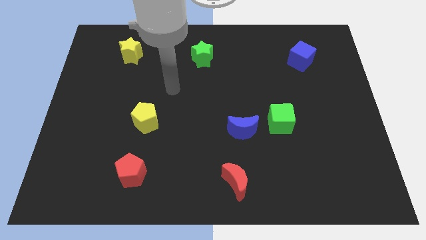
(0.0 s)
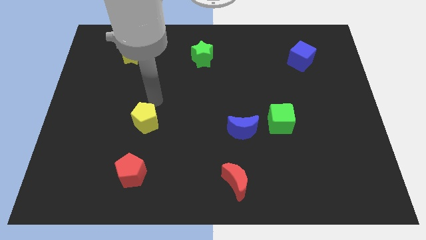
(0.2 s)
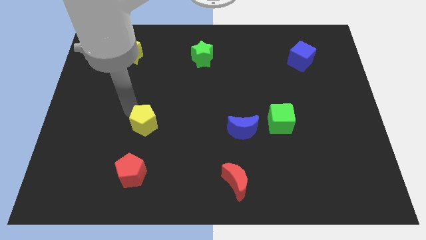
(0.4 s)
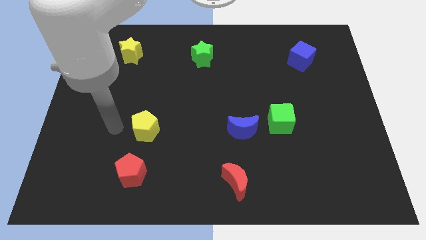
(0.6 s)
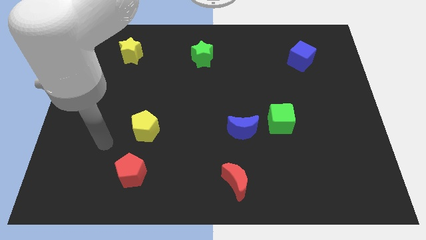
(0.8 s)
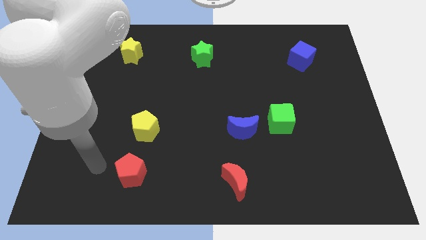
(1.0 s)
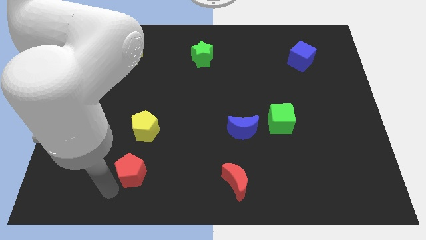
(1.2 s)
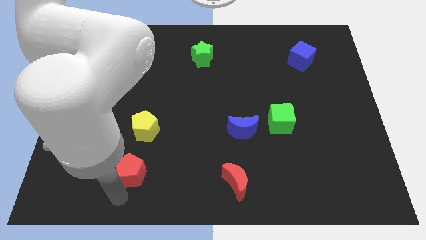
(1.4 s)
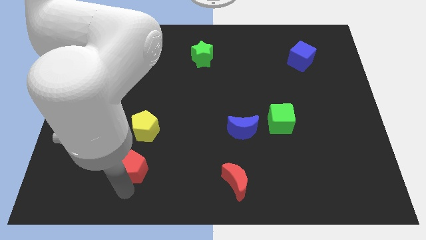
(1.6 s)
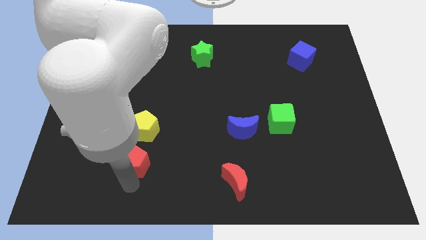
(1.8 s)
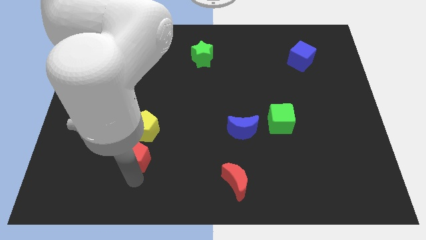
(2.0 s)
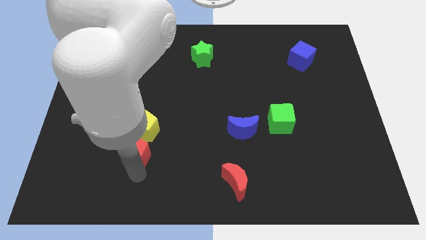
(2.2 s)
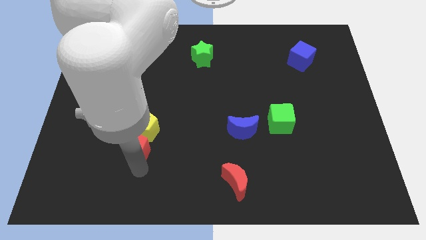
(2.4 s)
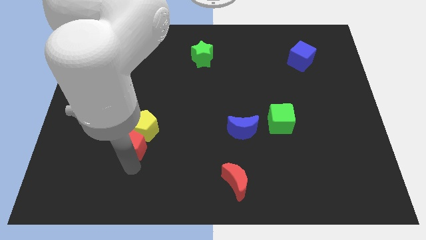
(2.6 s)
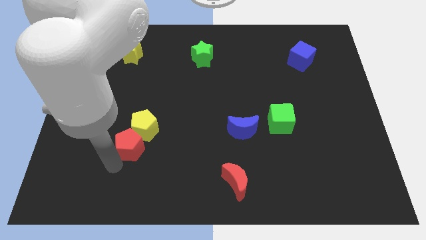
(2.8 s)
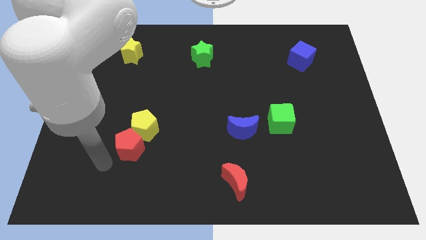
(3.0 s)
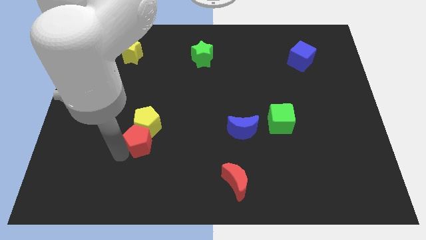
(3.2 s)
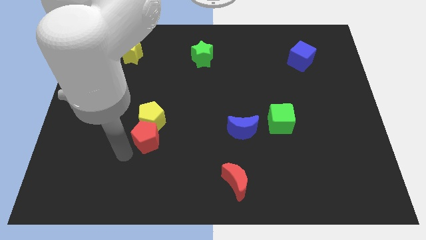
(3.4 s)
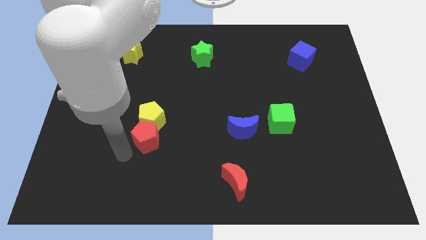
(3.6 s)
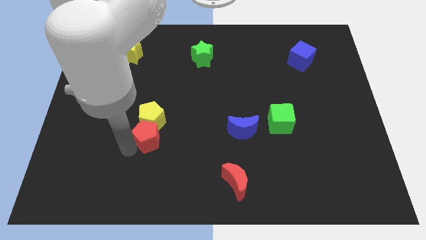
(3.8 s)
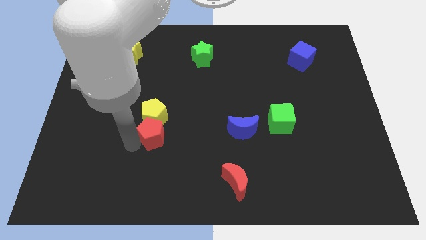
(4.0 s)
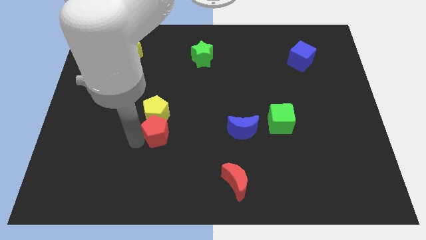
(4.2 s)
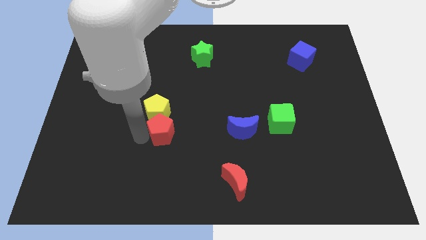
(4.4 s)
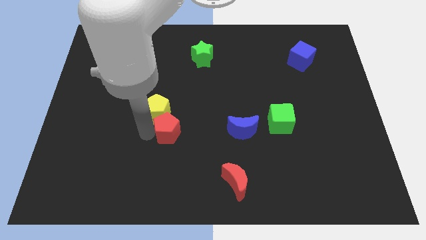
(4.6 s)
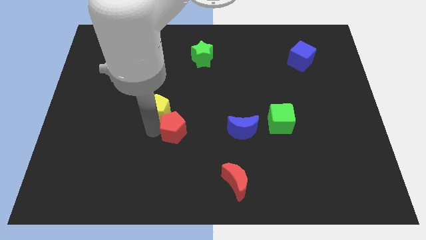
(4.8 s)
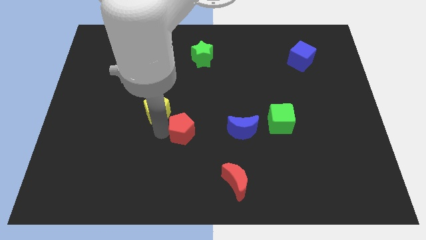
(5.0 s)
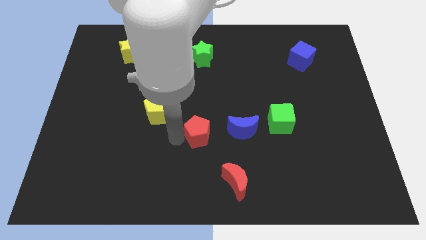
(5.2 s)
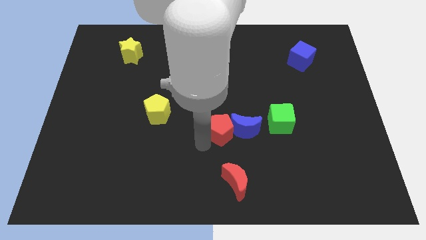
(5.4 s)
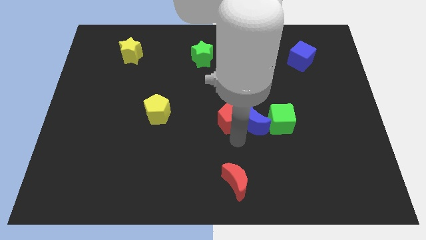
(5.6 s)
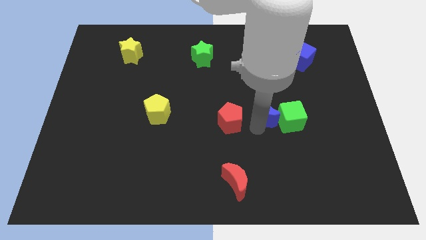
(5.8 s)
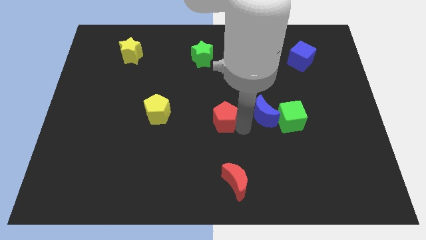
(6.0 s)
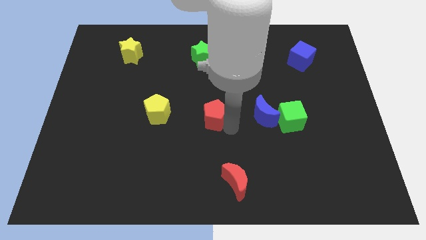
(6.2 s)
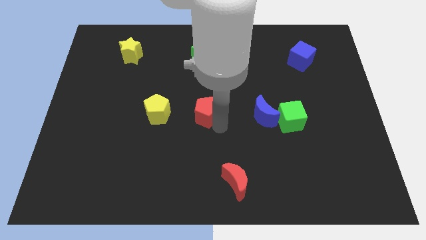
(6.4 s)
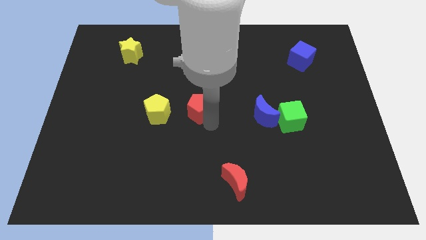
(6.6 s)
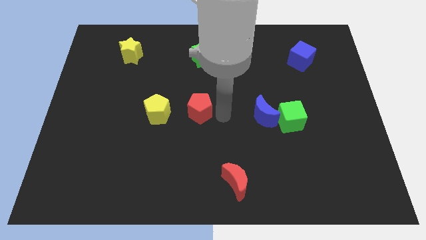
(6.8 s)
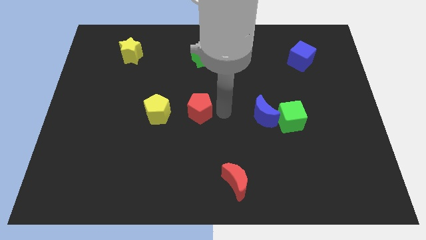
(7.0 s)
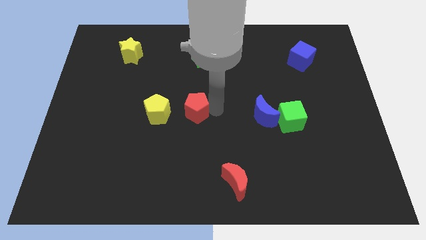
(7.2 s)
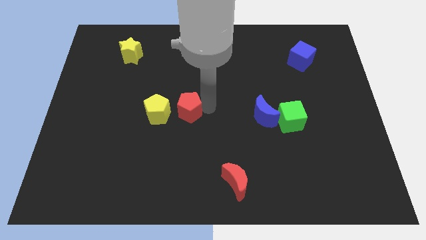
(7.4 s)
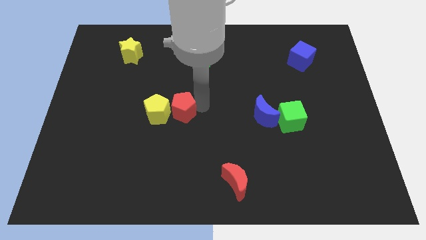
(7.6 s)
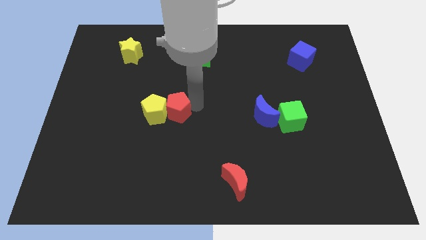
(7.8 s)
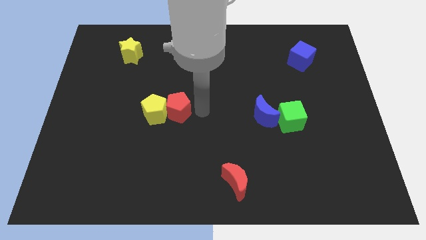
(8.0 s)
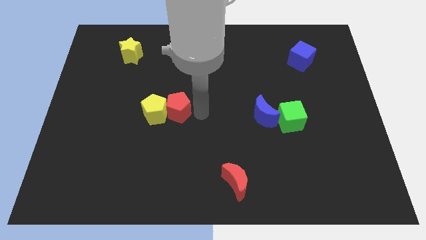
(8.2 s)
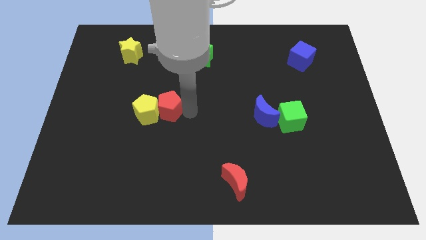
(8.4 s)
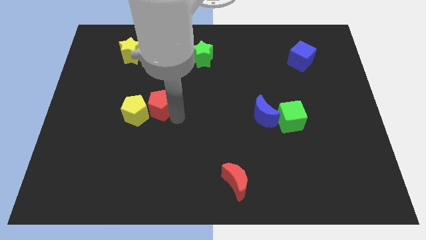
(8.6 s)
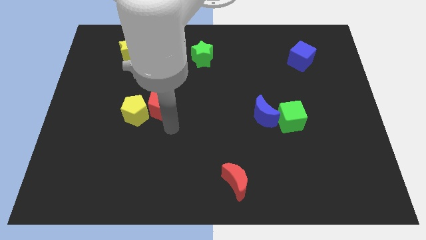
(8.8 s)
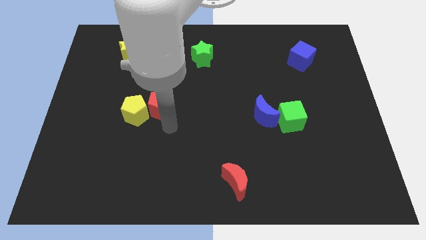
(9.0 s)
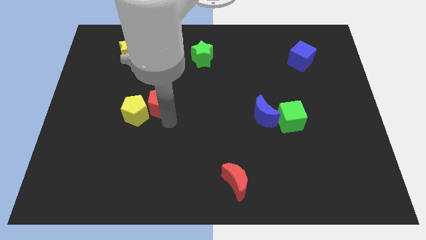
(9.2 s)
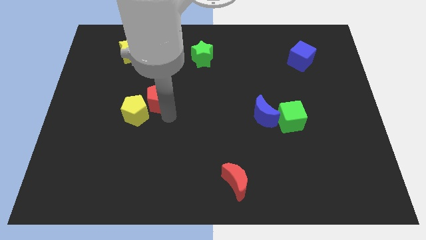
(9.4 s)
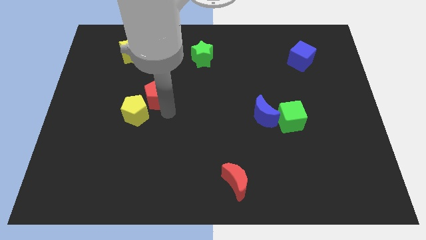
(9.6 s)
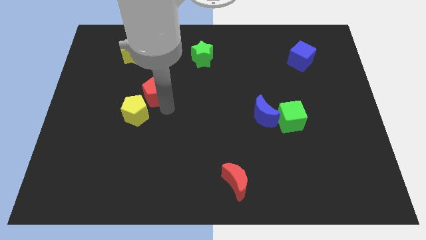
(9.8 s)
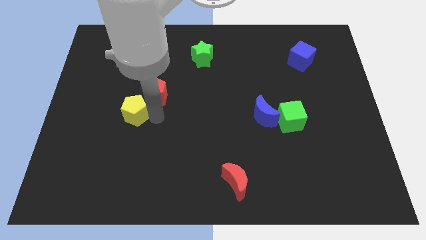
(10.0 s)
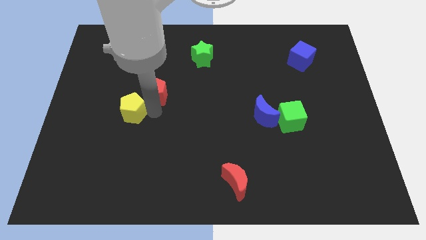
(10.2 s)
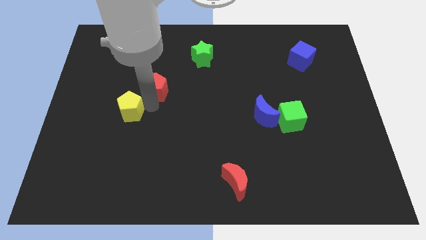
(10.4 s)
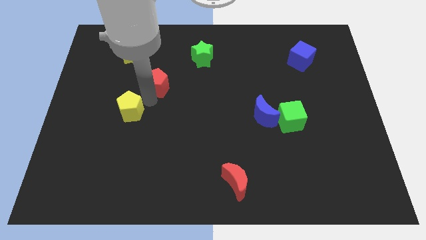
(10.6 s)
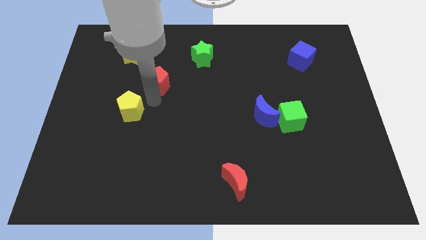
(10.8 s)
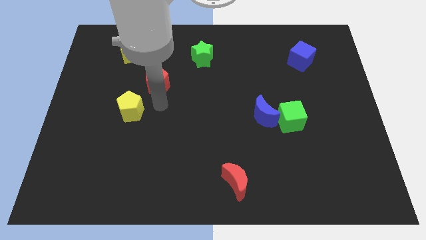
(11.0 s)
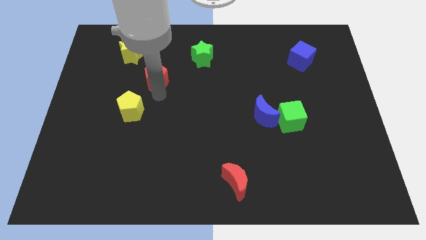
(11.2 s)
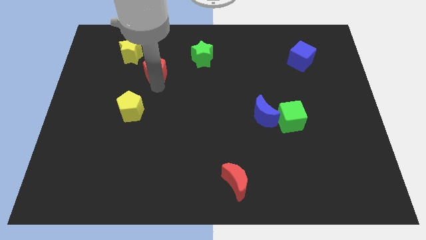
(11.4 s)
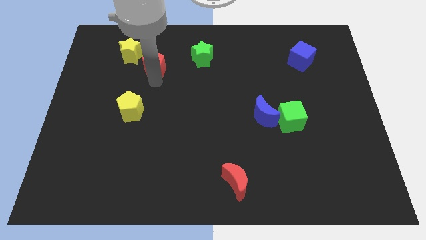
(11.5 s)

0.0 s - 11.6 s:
slide the red pentagon left of the green star

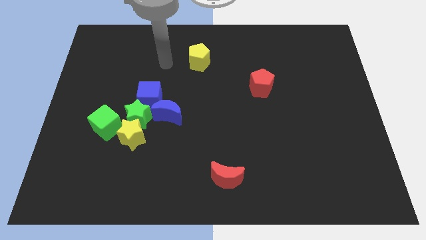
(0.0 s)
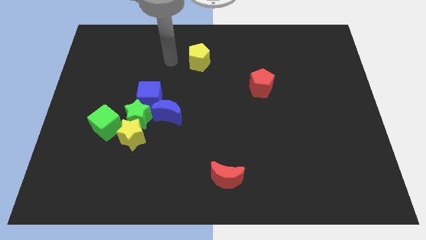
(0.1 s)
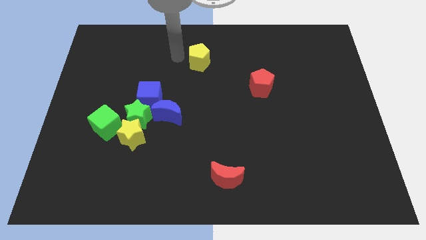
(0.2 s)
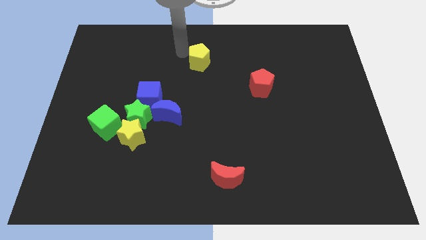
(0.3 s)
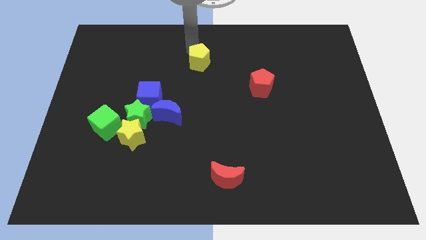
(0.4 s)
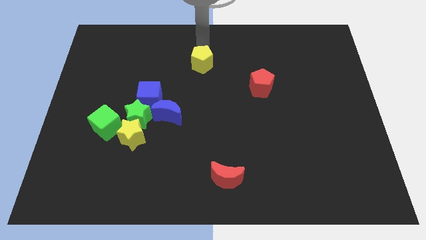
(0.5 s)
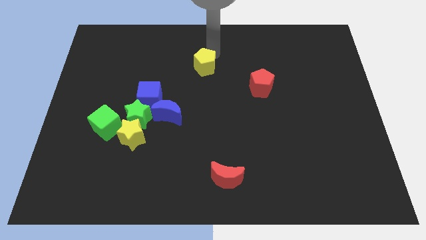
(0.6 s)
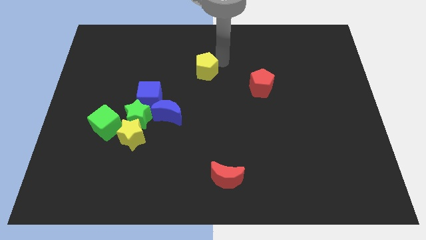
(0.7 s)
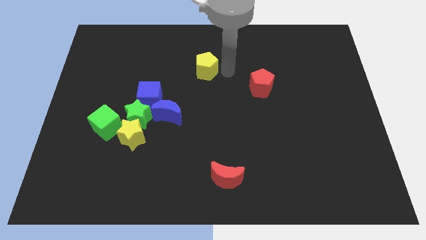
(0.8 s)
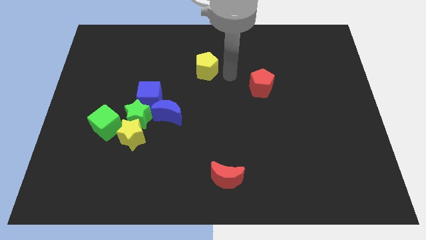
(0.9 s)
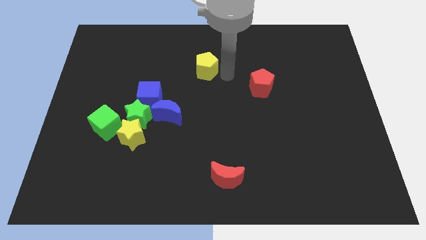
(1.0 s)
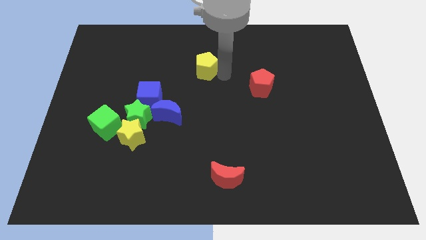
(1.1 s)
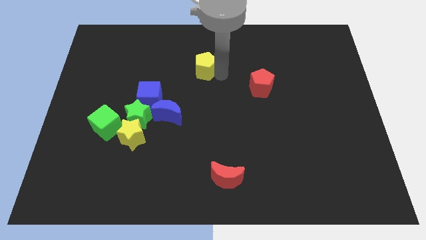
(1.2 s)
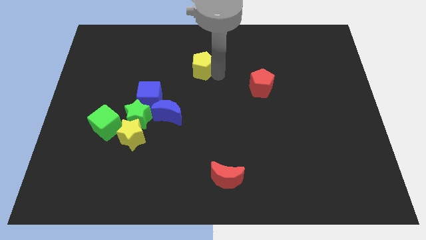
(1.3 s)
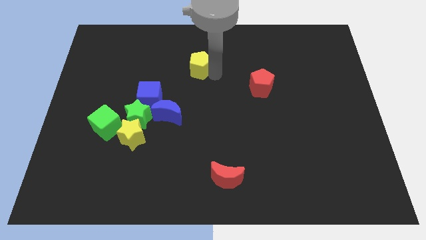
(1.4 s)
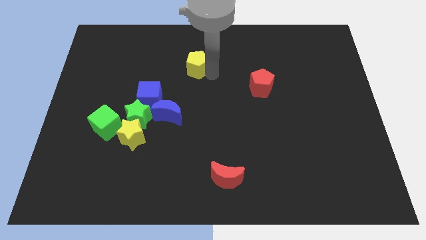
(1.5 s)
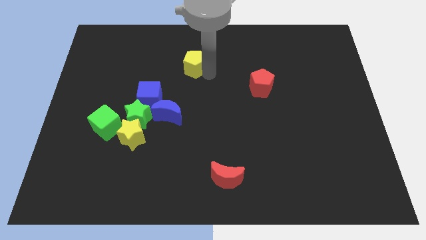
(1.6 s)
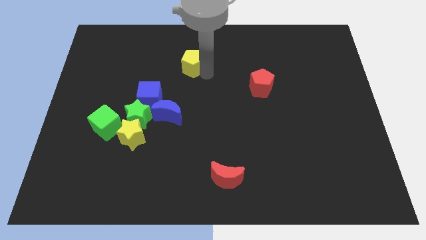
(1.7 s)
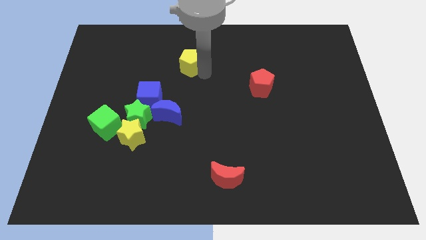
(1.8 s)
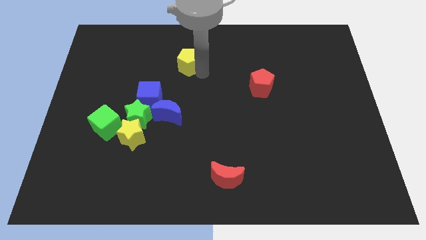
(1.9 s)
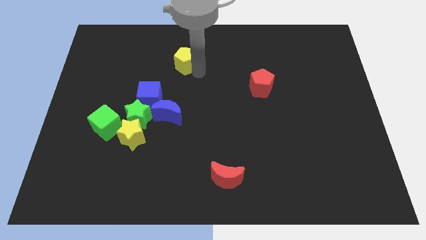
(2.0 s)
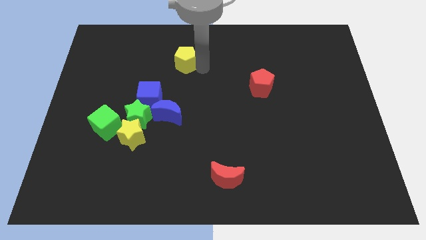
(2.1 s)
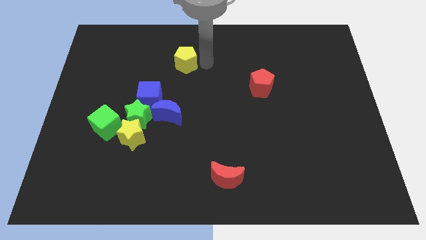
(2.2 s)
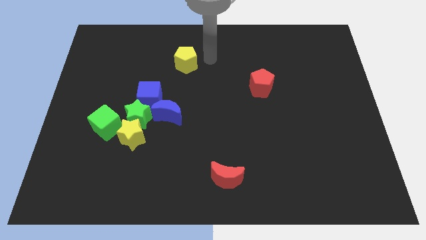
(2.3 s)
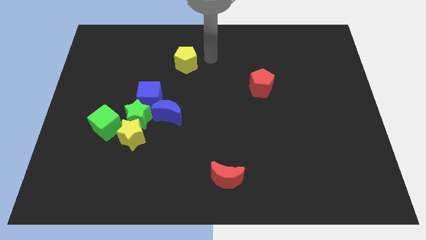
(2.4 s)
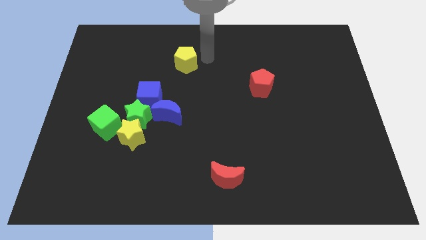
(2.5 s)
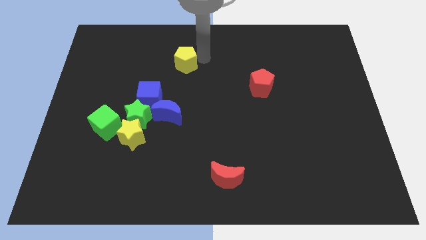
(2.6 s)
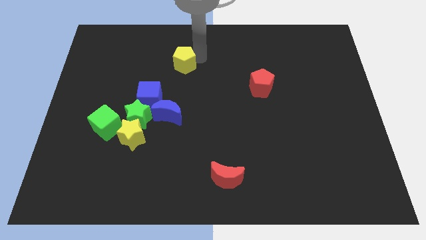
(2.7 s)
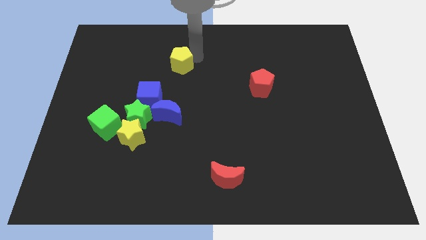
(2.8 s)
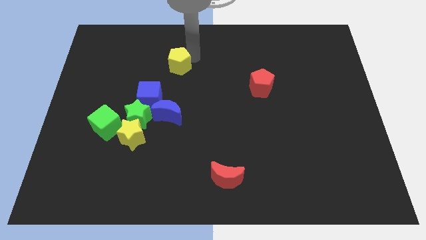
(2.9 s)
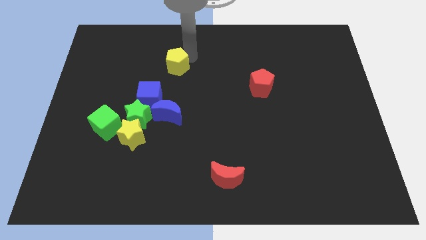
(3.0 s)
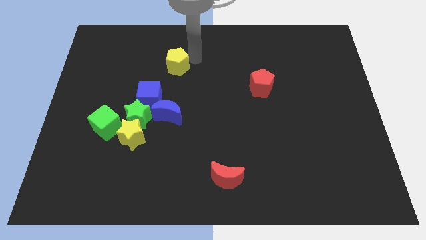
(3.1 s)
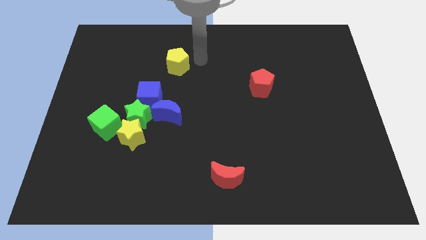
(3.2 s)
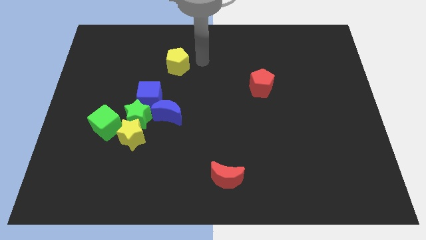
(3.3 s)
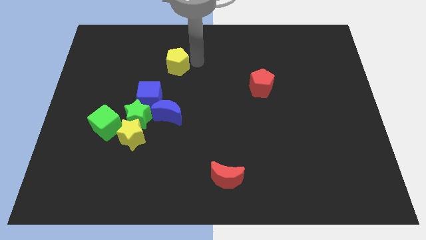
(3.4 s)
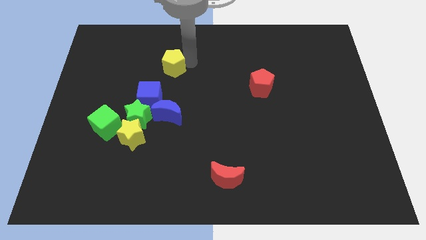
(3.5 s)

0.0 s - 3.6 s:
push the yellow pentagon to the top side of the blue cube
